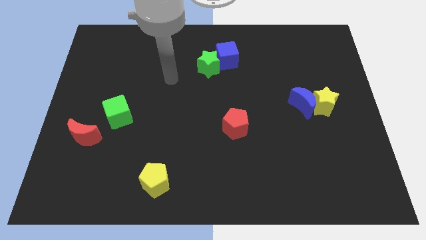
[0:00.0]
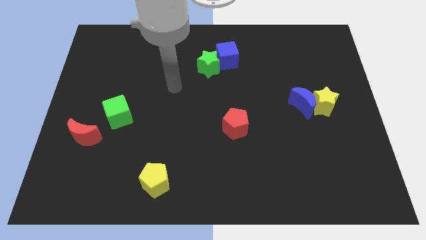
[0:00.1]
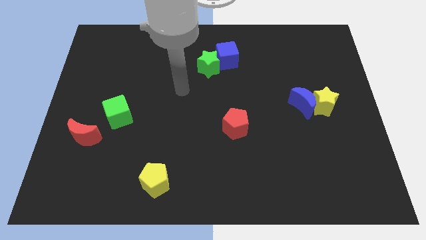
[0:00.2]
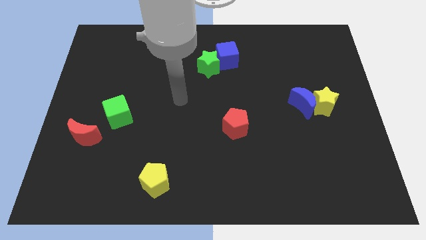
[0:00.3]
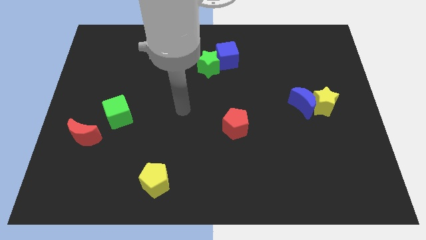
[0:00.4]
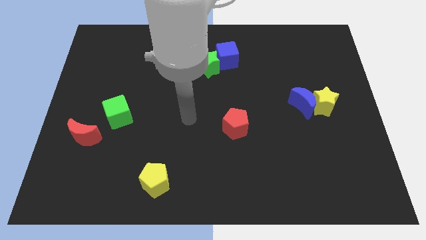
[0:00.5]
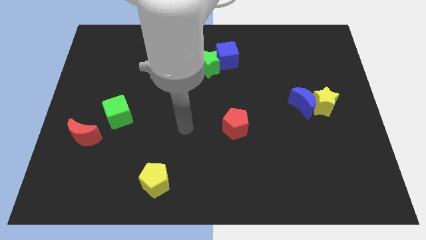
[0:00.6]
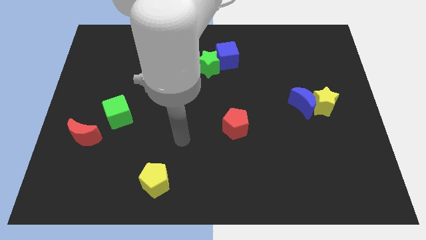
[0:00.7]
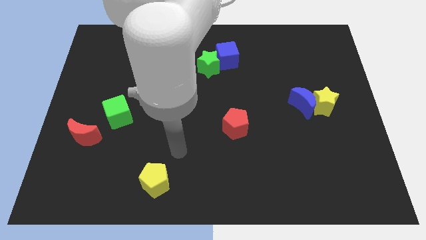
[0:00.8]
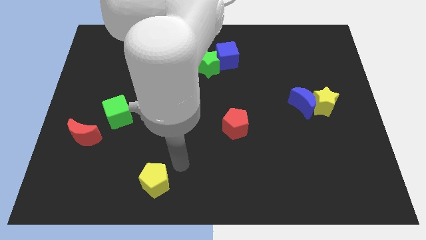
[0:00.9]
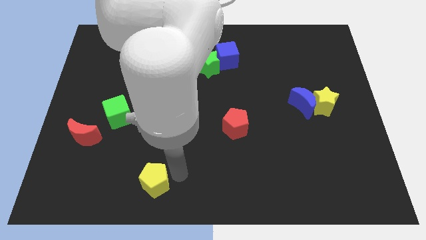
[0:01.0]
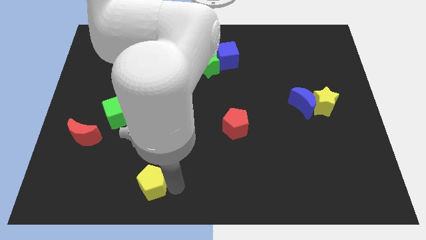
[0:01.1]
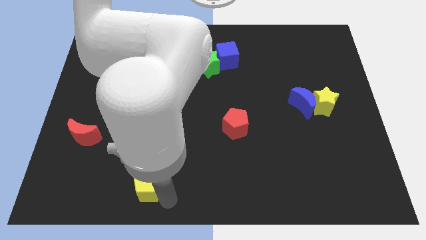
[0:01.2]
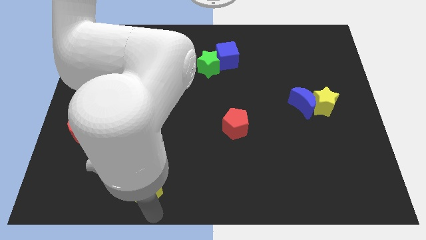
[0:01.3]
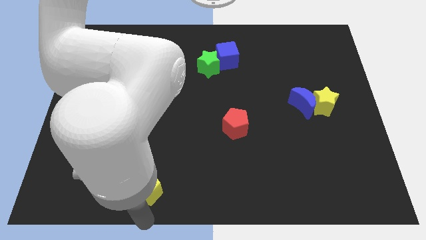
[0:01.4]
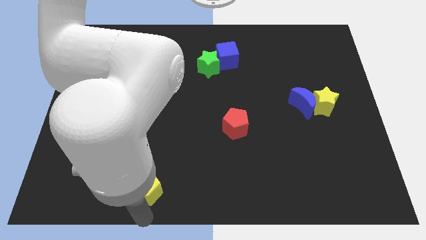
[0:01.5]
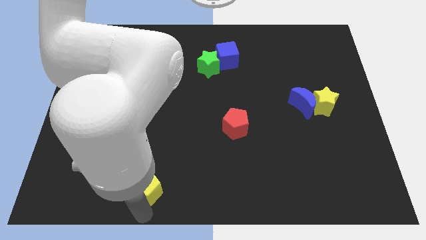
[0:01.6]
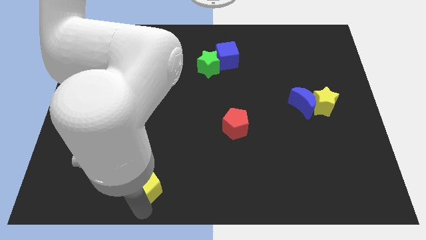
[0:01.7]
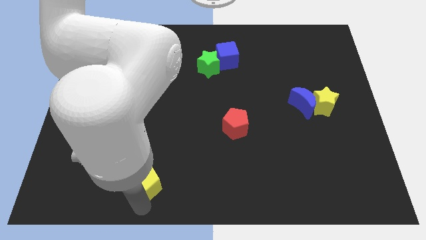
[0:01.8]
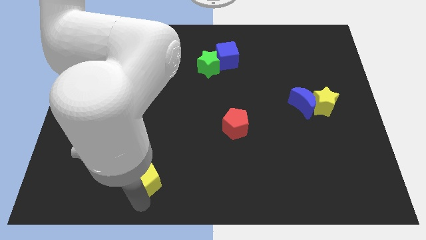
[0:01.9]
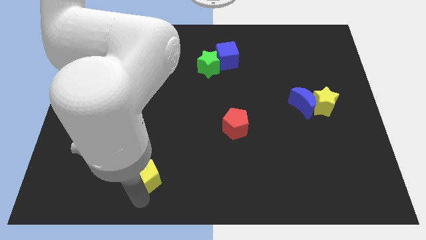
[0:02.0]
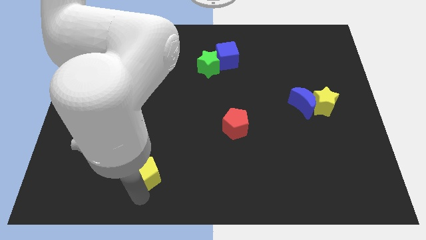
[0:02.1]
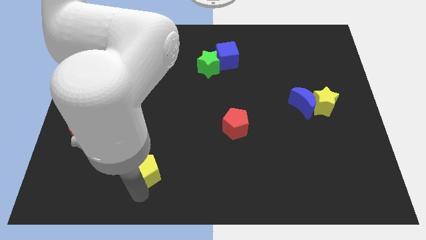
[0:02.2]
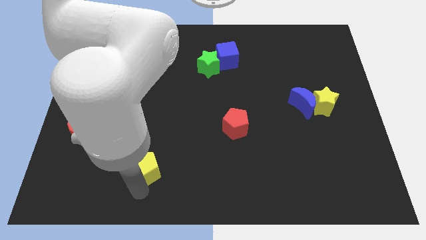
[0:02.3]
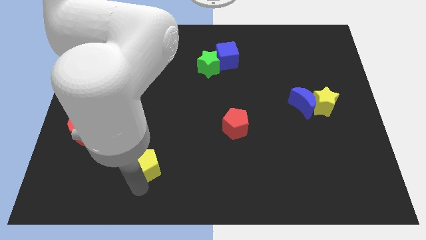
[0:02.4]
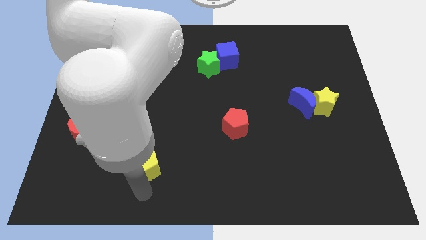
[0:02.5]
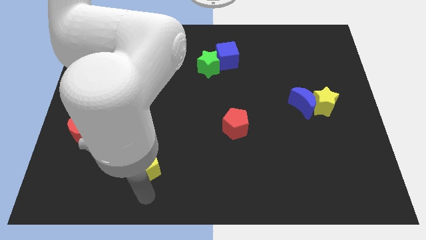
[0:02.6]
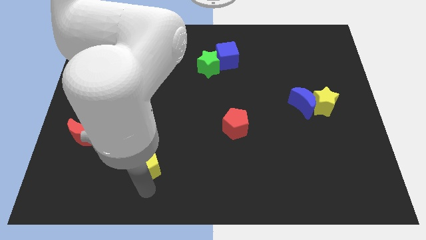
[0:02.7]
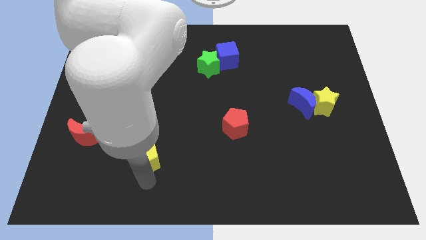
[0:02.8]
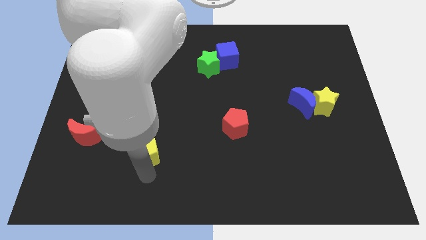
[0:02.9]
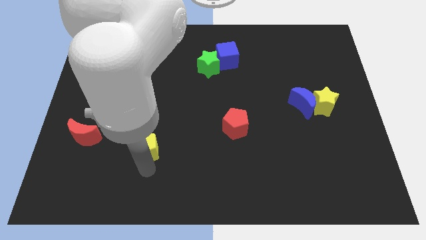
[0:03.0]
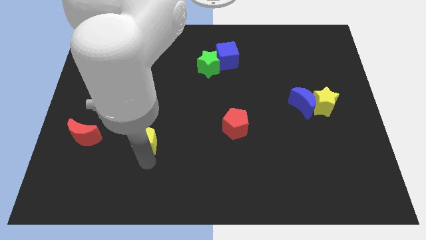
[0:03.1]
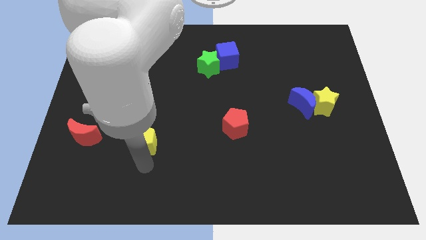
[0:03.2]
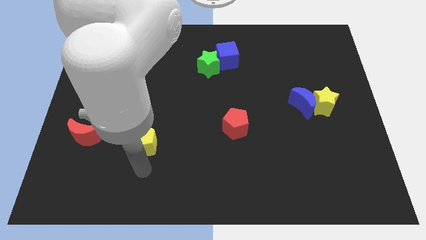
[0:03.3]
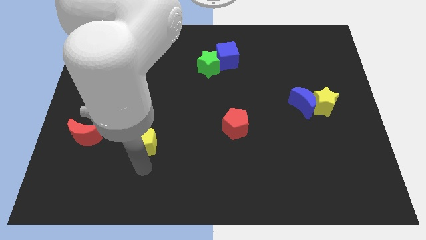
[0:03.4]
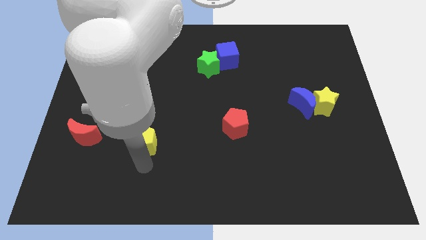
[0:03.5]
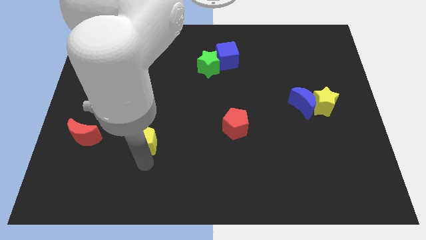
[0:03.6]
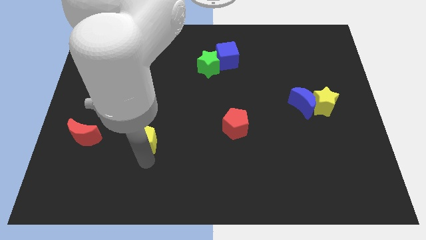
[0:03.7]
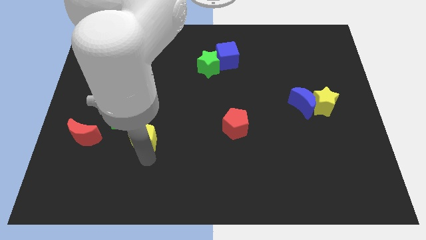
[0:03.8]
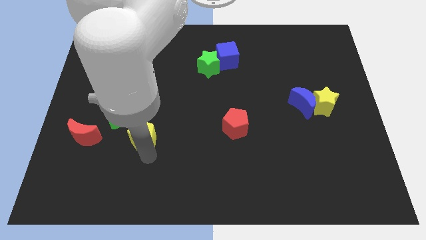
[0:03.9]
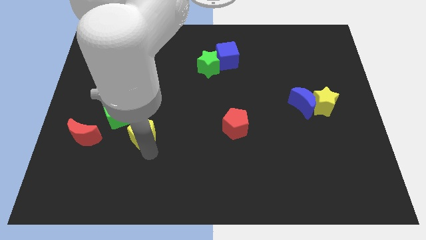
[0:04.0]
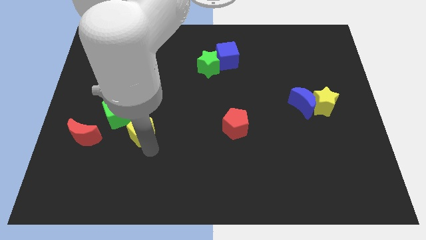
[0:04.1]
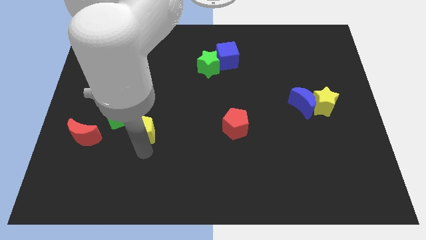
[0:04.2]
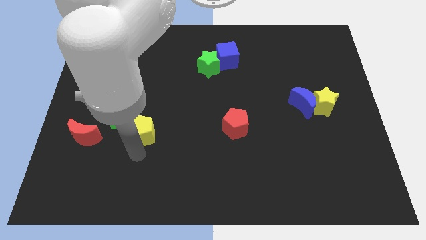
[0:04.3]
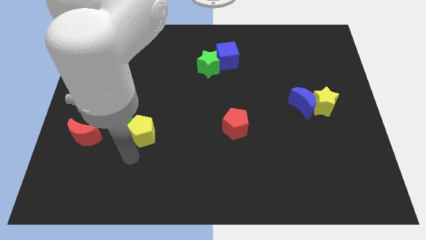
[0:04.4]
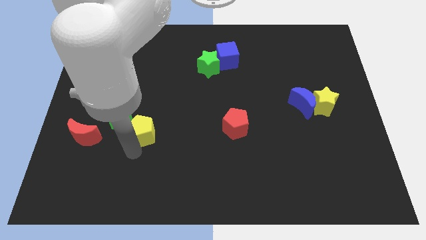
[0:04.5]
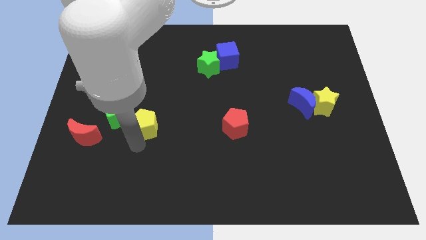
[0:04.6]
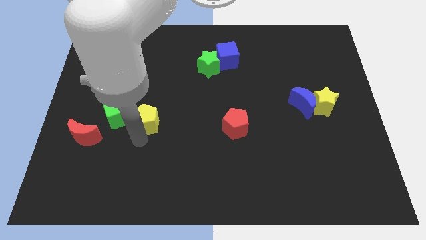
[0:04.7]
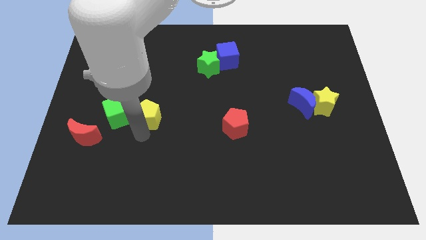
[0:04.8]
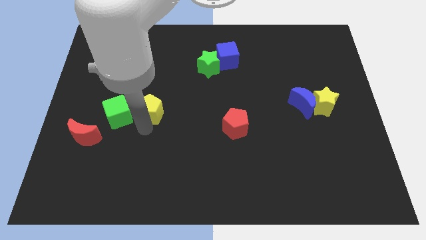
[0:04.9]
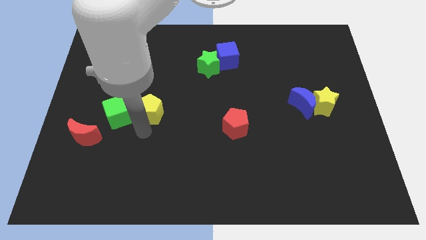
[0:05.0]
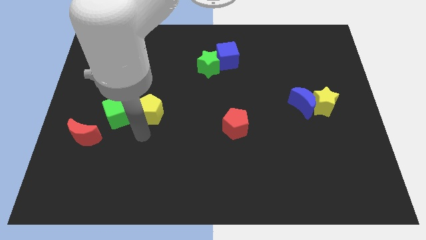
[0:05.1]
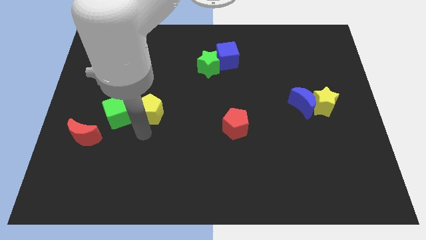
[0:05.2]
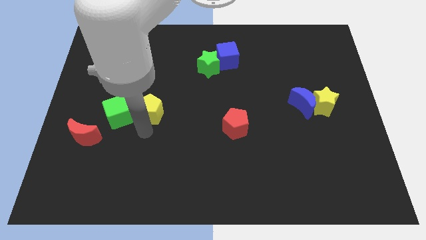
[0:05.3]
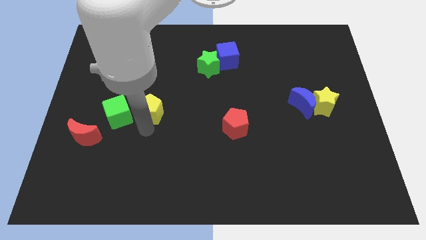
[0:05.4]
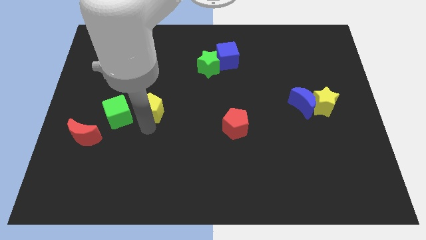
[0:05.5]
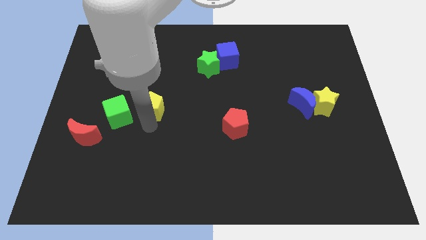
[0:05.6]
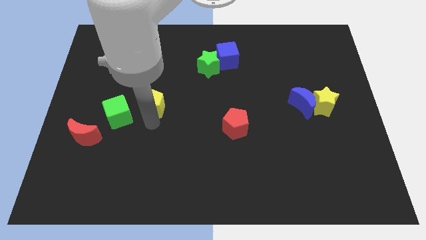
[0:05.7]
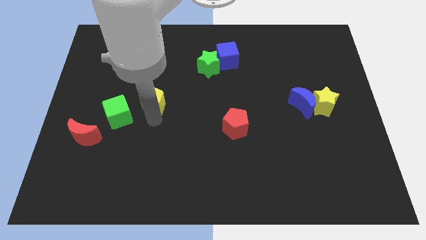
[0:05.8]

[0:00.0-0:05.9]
move the yellow pentagon upwards

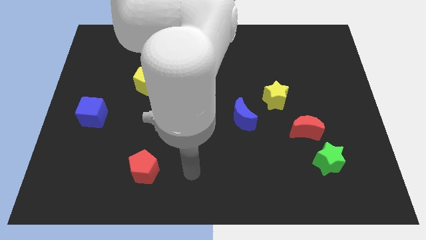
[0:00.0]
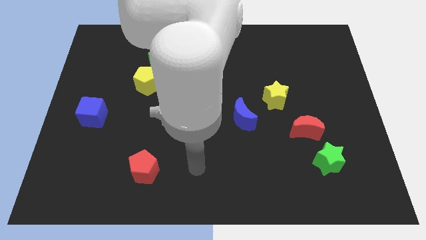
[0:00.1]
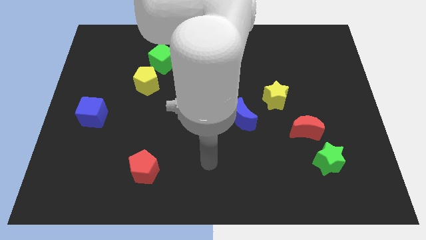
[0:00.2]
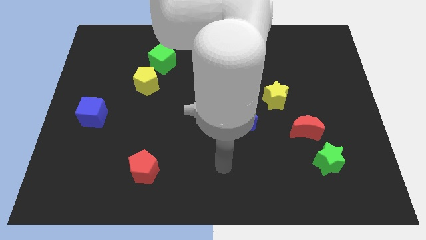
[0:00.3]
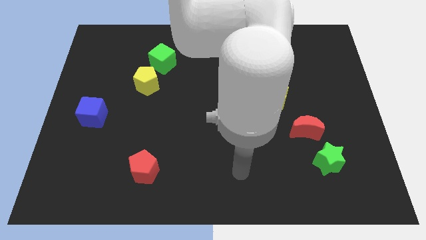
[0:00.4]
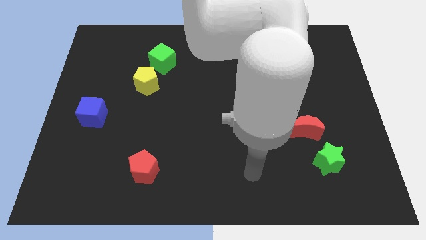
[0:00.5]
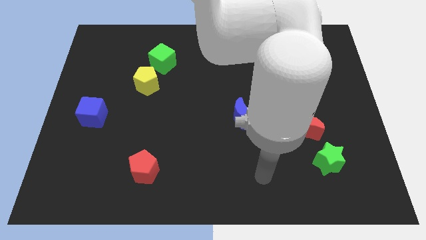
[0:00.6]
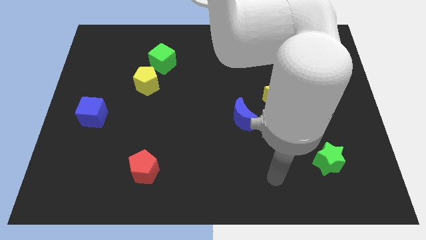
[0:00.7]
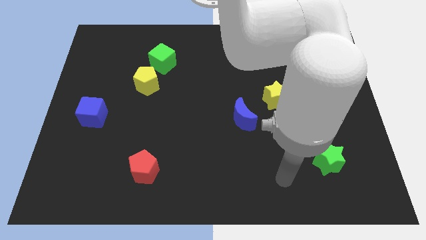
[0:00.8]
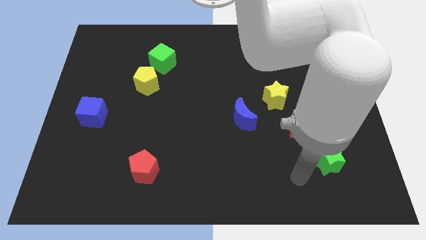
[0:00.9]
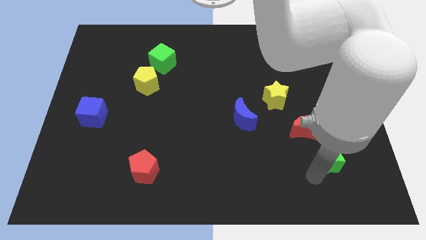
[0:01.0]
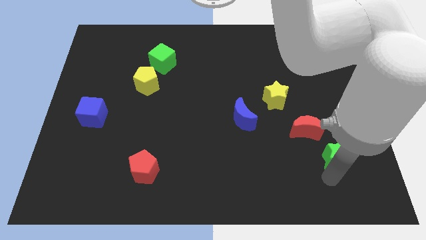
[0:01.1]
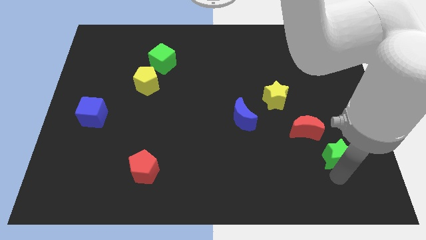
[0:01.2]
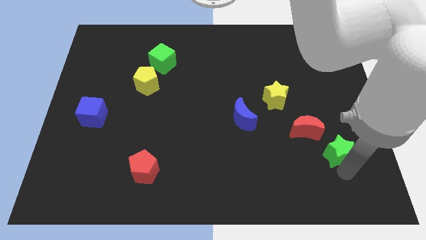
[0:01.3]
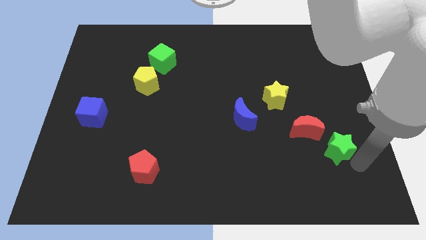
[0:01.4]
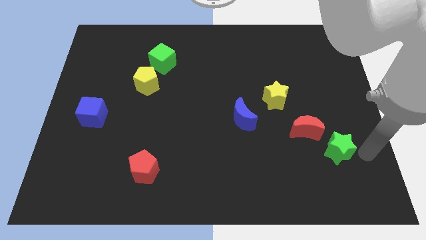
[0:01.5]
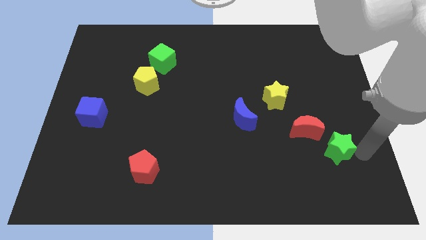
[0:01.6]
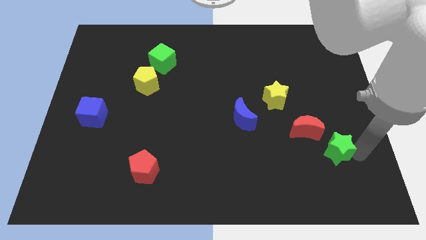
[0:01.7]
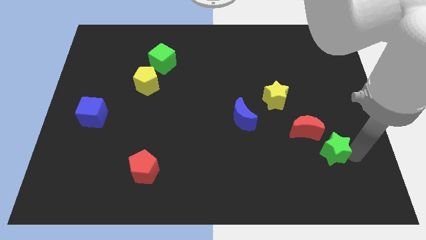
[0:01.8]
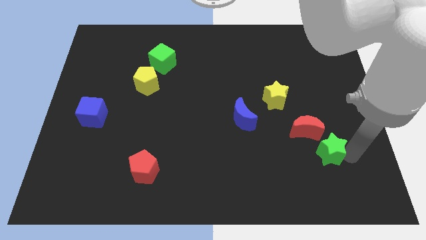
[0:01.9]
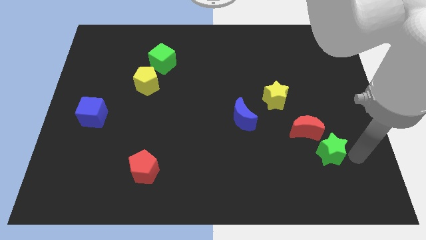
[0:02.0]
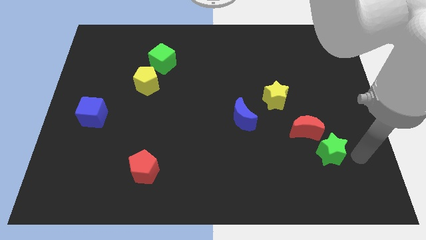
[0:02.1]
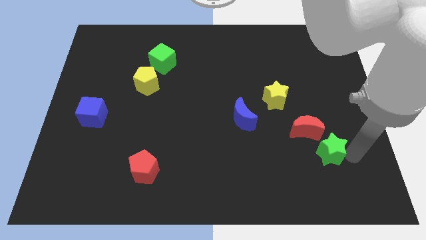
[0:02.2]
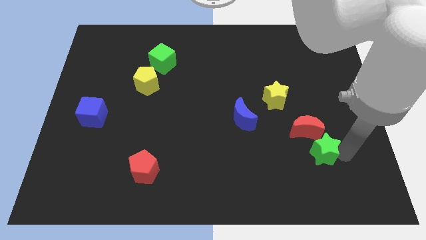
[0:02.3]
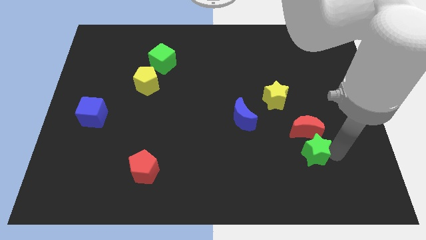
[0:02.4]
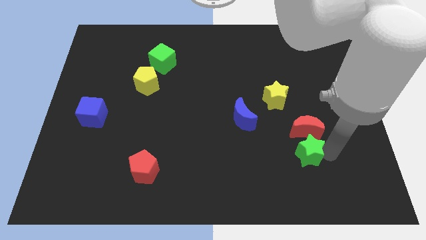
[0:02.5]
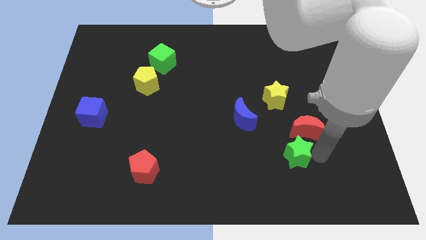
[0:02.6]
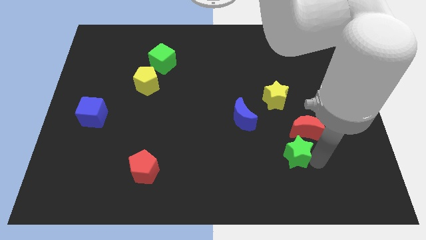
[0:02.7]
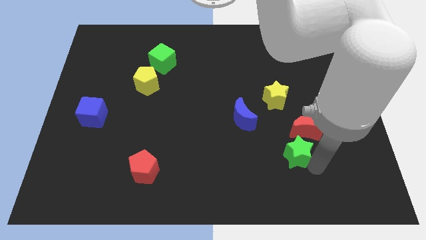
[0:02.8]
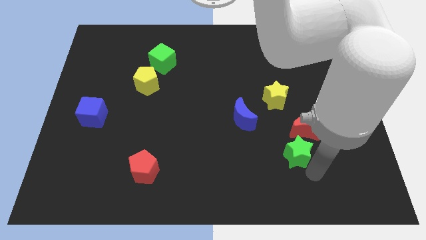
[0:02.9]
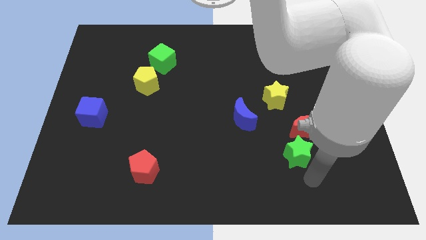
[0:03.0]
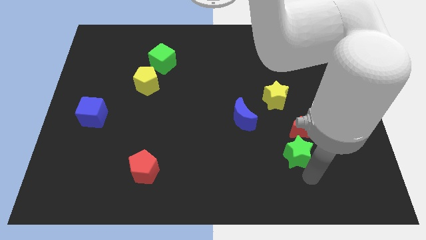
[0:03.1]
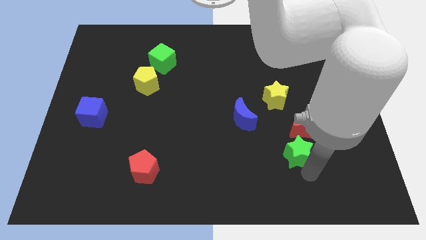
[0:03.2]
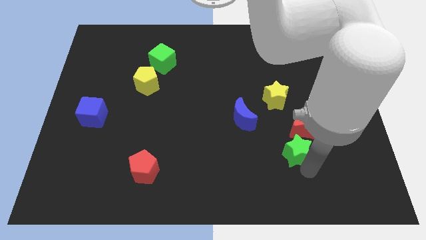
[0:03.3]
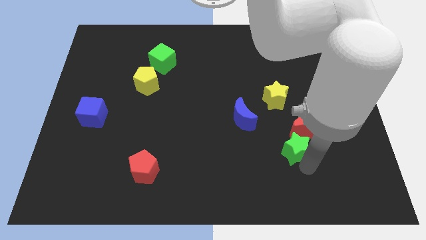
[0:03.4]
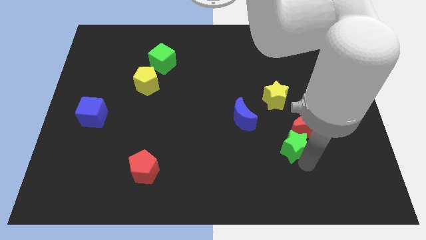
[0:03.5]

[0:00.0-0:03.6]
push the green star slightly diagonally upwards and to the left
